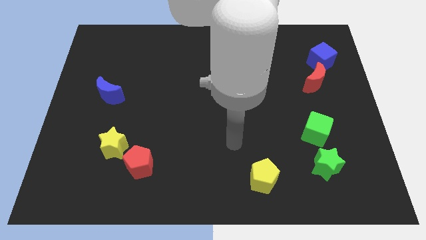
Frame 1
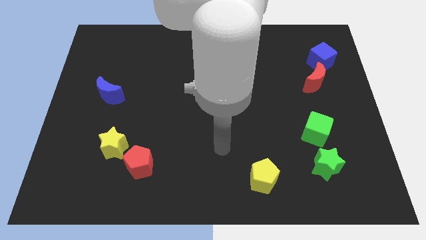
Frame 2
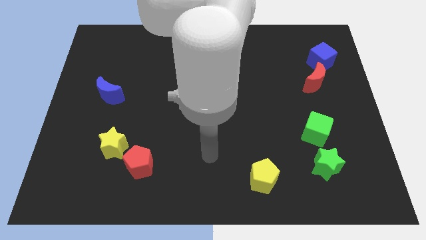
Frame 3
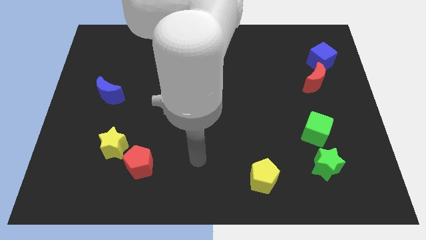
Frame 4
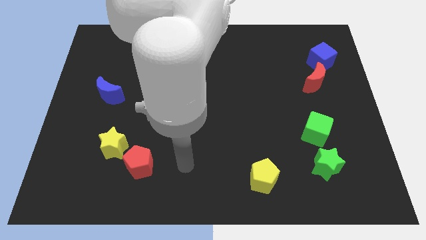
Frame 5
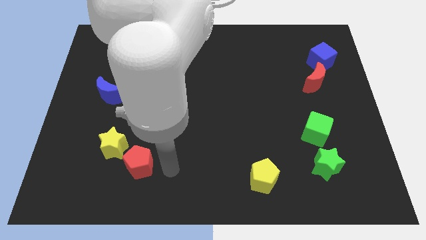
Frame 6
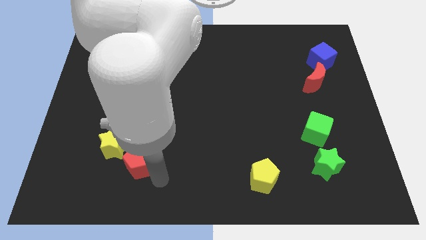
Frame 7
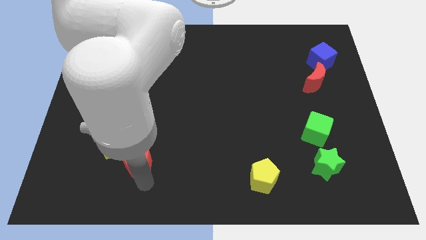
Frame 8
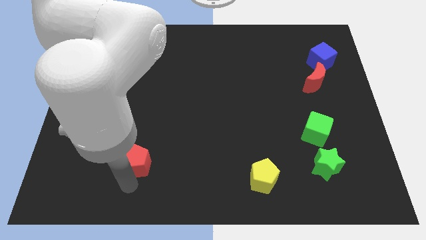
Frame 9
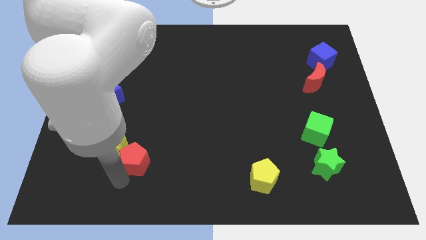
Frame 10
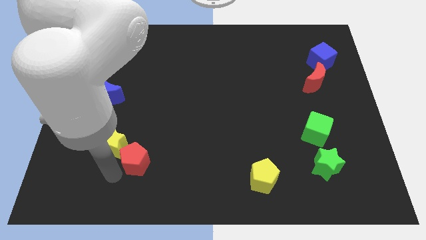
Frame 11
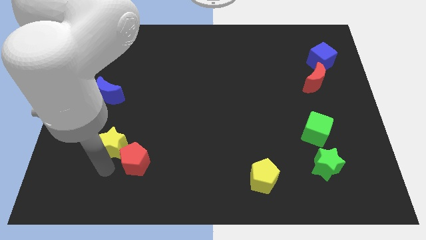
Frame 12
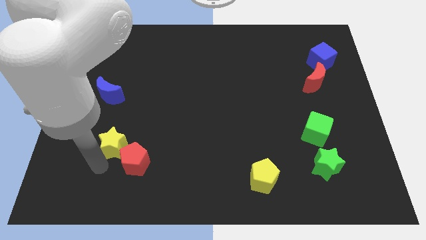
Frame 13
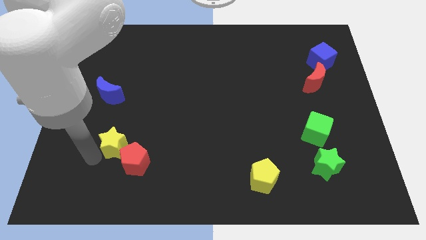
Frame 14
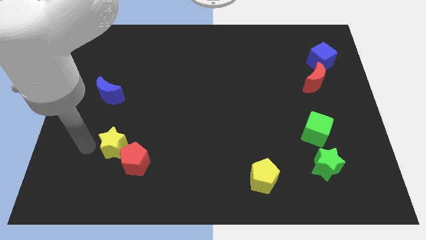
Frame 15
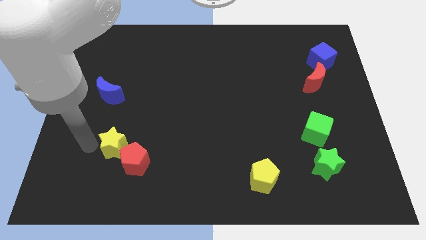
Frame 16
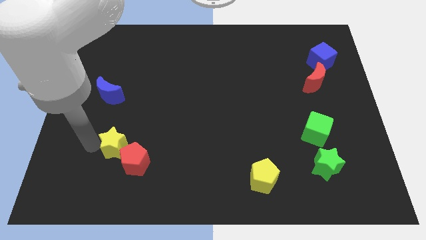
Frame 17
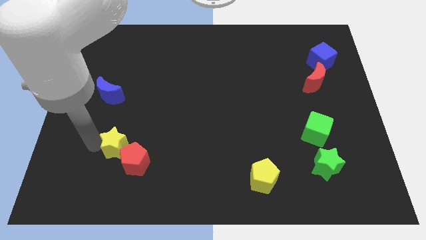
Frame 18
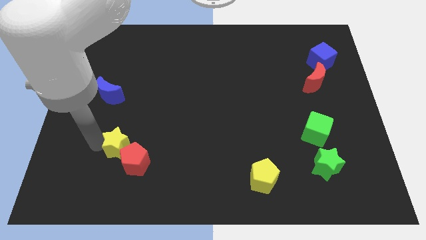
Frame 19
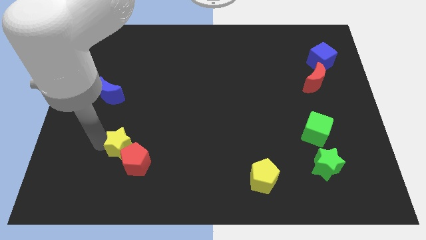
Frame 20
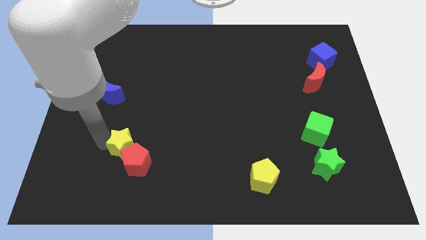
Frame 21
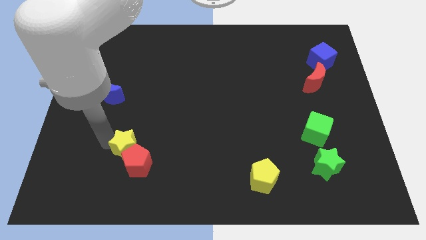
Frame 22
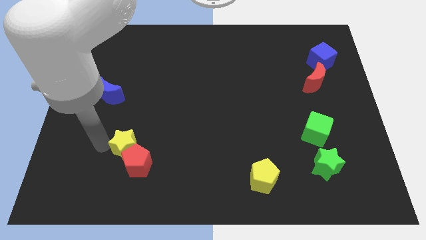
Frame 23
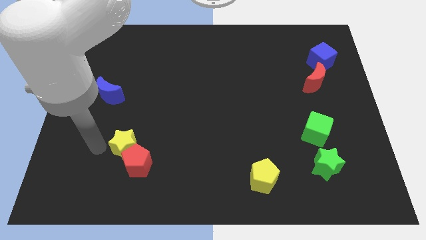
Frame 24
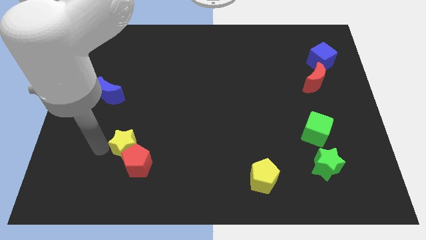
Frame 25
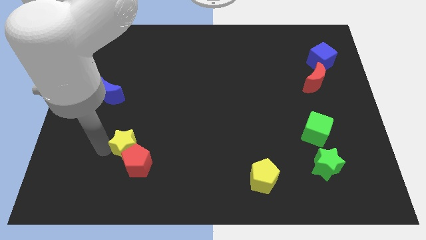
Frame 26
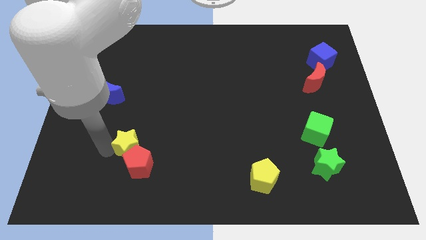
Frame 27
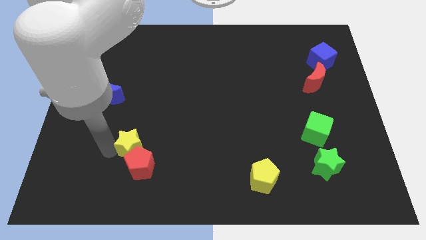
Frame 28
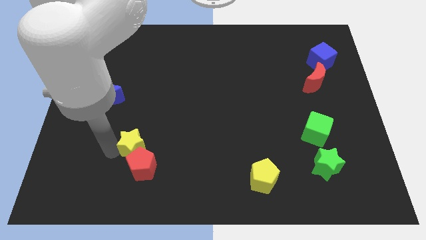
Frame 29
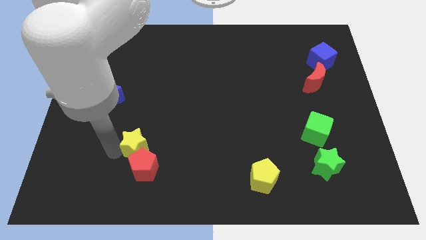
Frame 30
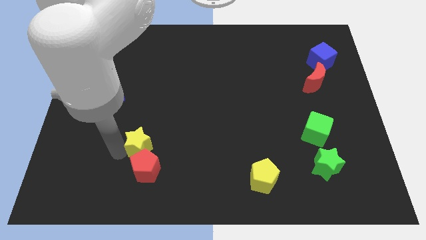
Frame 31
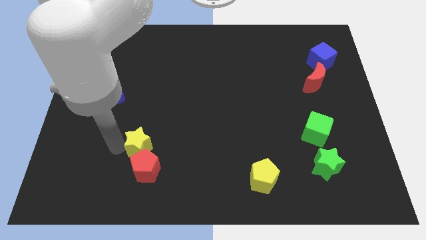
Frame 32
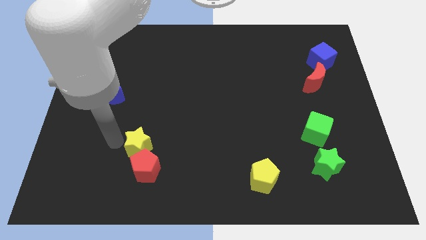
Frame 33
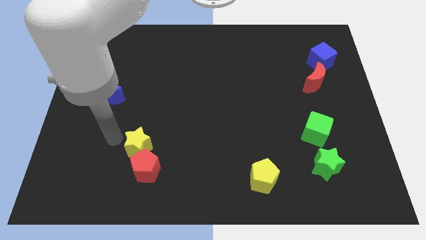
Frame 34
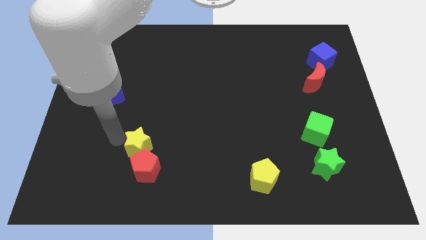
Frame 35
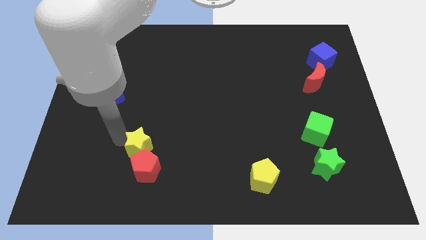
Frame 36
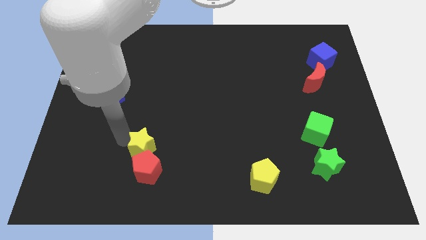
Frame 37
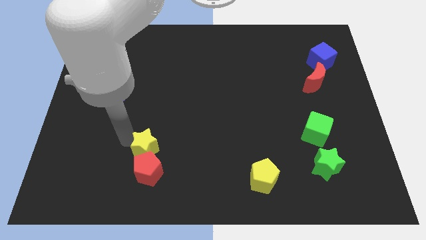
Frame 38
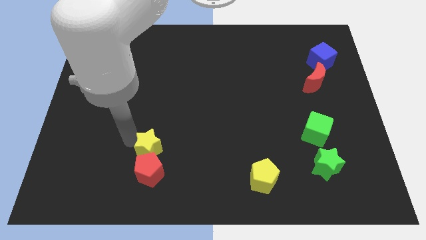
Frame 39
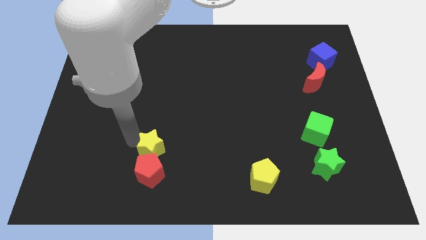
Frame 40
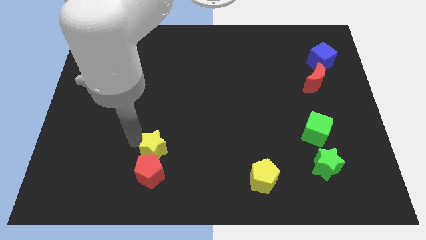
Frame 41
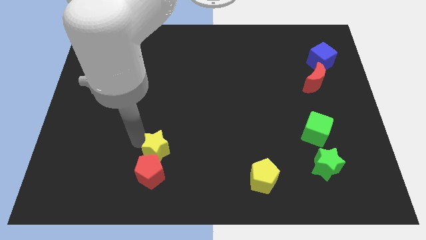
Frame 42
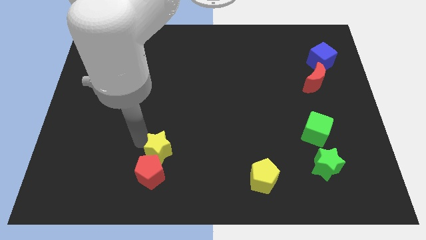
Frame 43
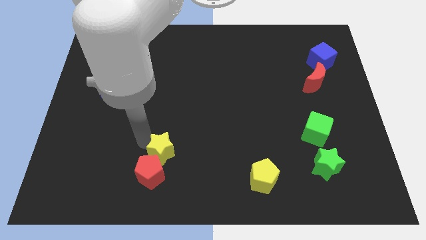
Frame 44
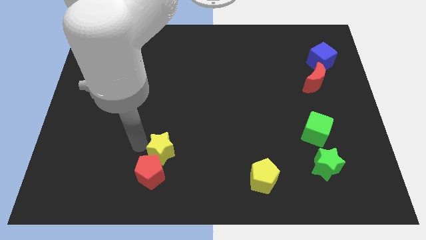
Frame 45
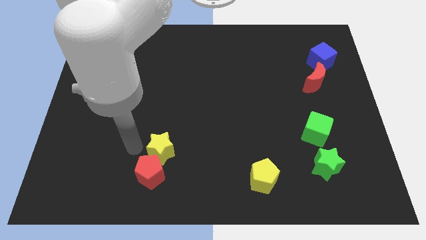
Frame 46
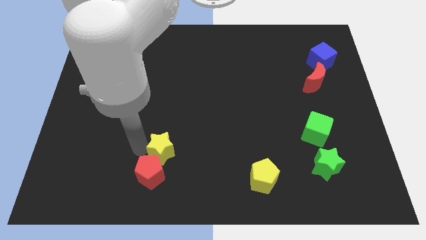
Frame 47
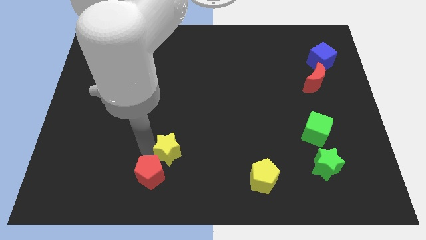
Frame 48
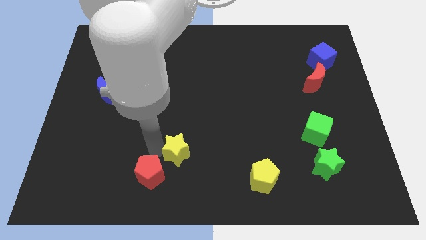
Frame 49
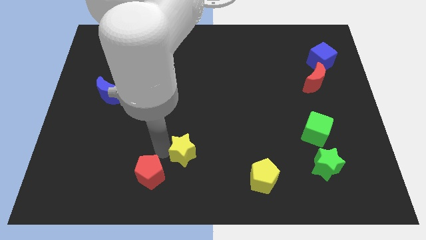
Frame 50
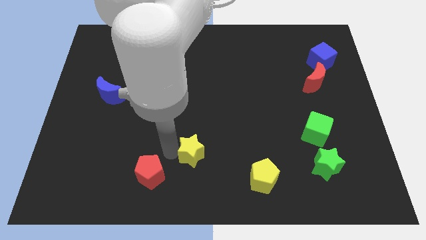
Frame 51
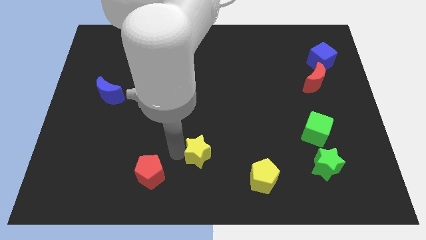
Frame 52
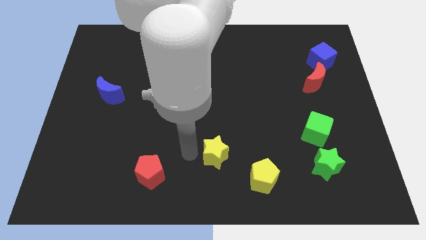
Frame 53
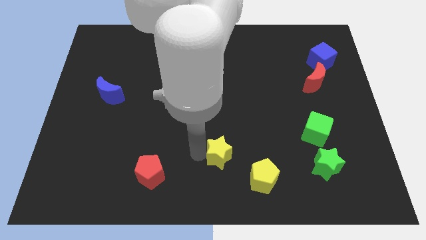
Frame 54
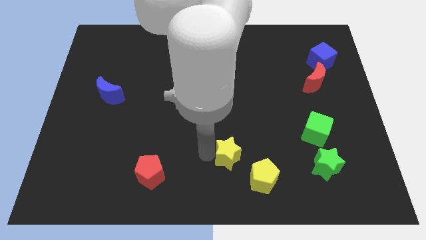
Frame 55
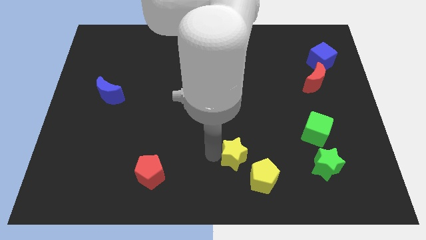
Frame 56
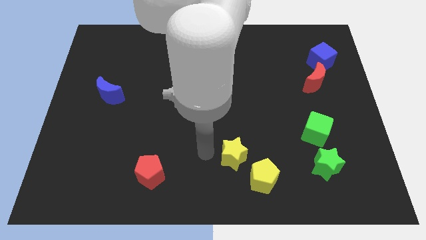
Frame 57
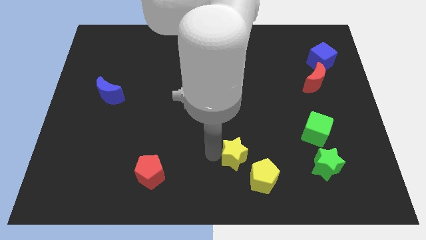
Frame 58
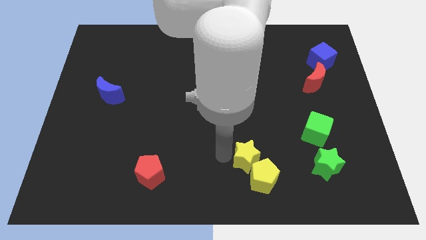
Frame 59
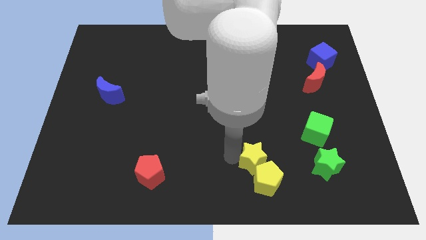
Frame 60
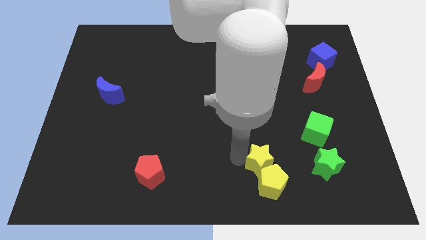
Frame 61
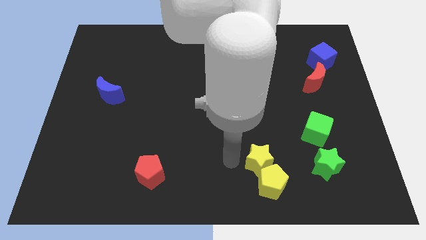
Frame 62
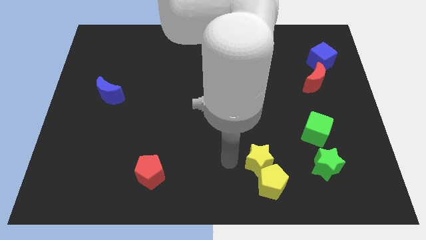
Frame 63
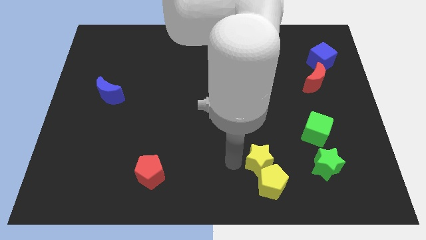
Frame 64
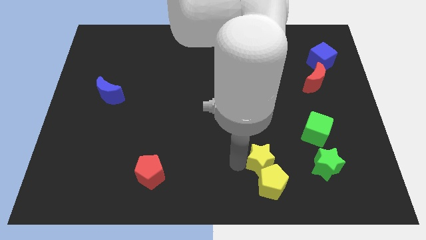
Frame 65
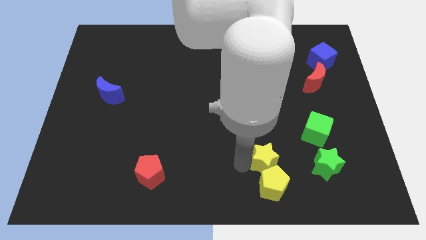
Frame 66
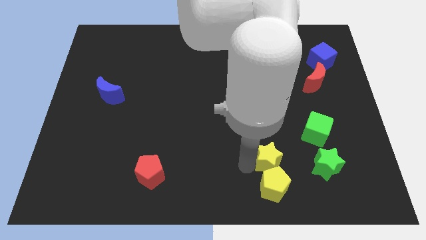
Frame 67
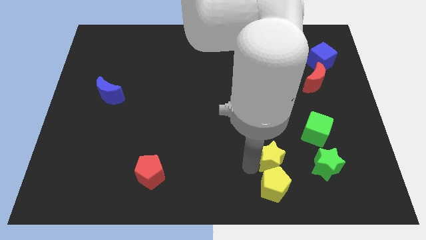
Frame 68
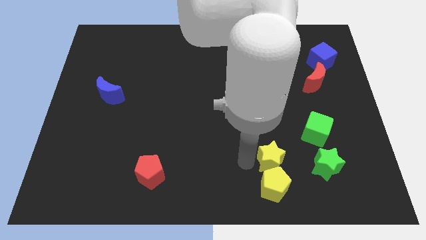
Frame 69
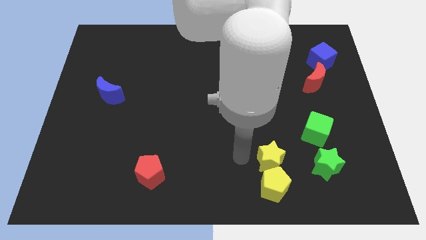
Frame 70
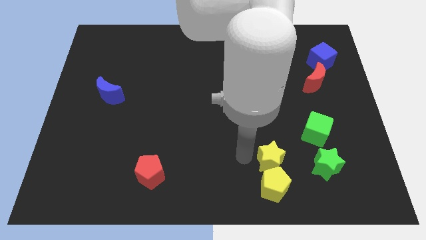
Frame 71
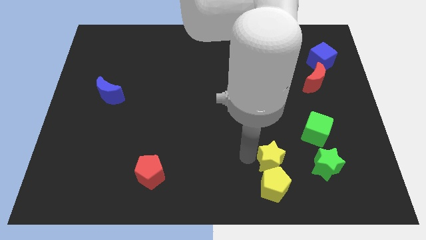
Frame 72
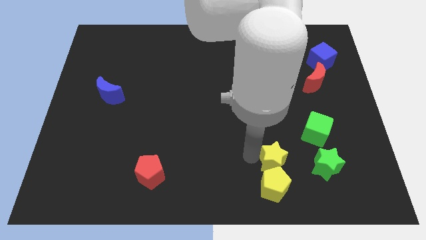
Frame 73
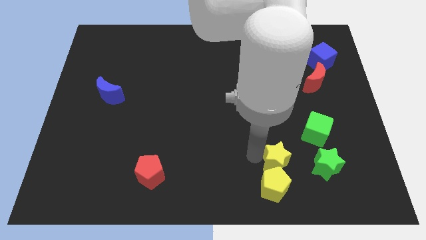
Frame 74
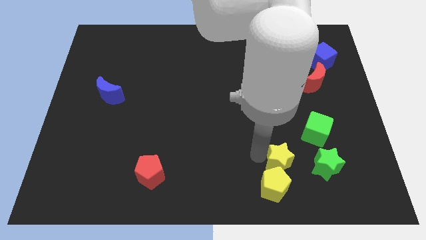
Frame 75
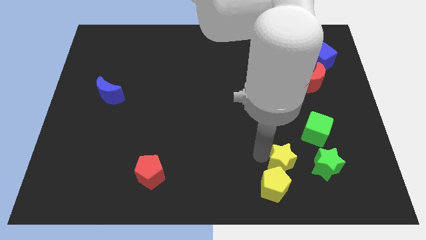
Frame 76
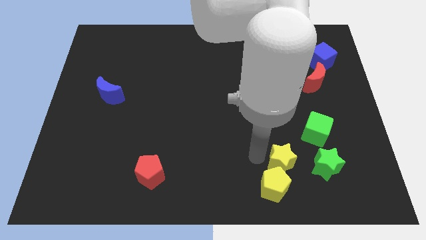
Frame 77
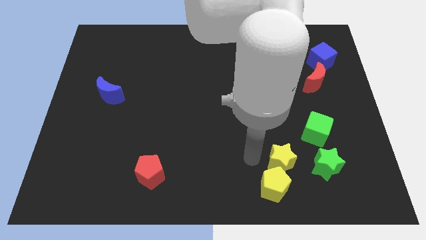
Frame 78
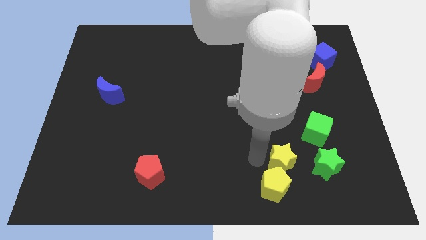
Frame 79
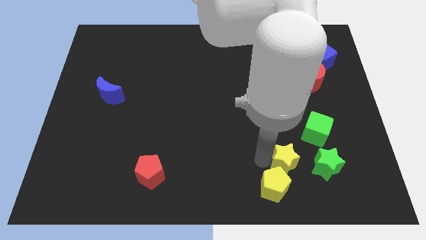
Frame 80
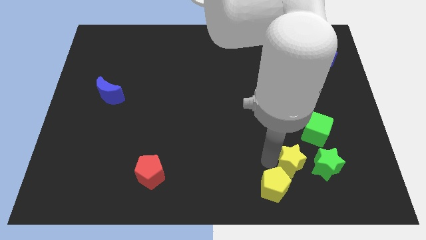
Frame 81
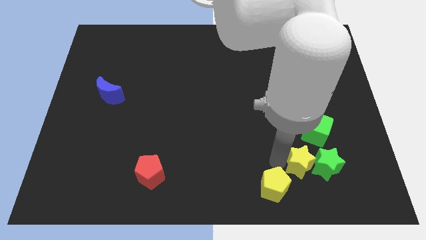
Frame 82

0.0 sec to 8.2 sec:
slide the yellow star to the green star
